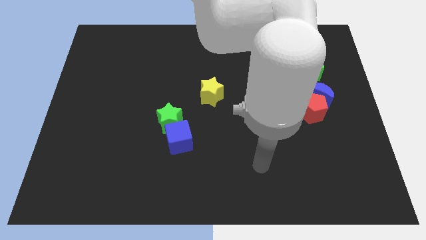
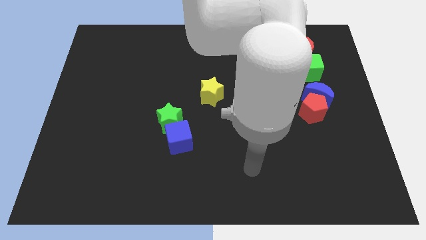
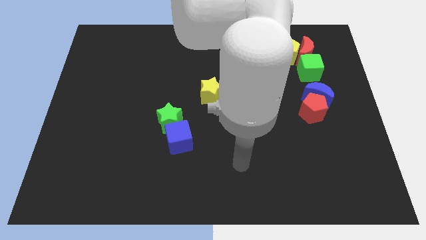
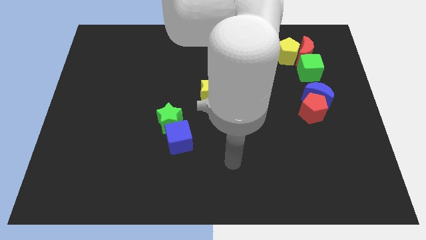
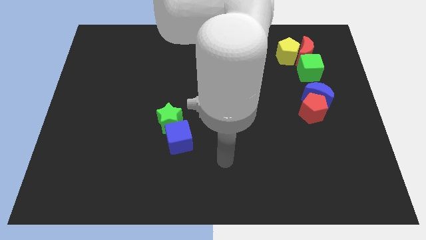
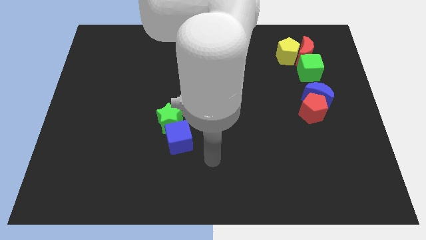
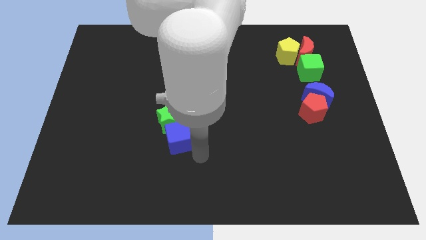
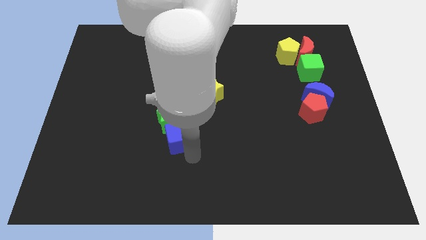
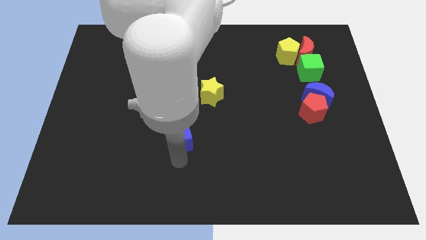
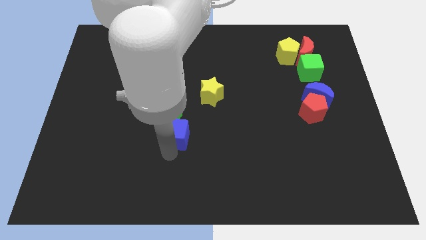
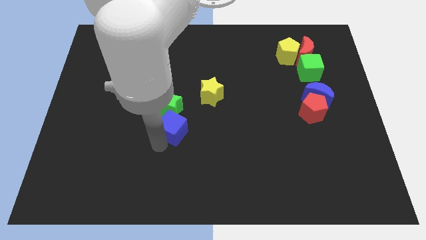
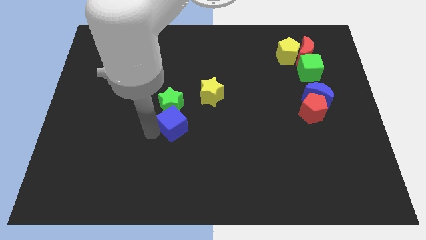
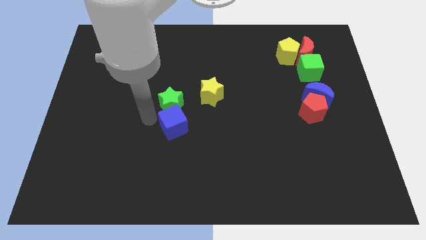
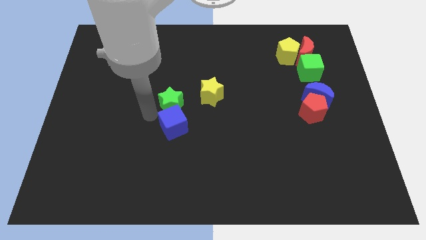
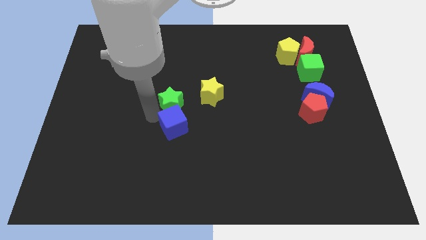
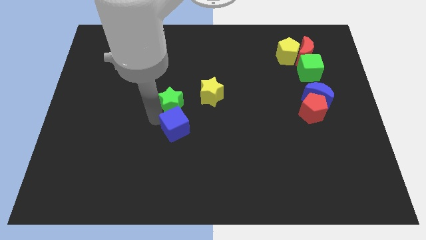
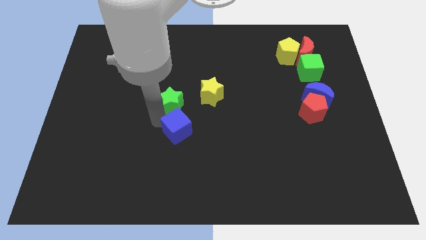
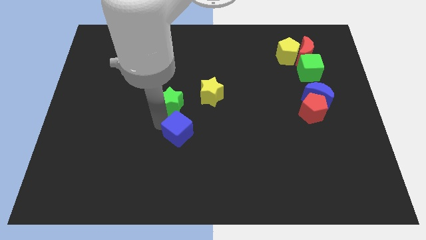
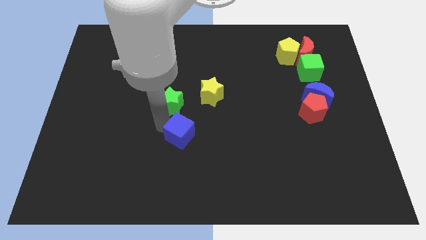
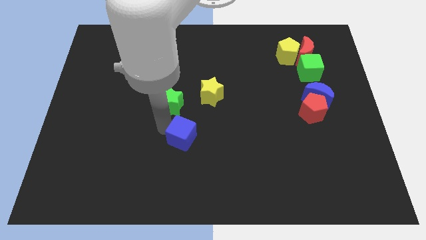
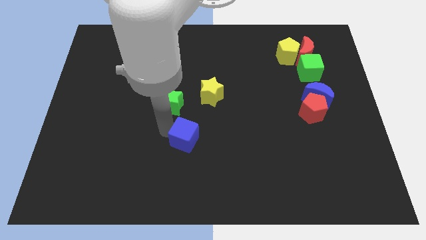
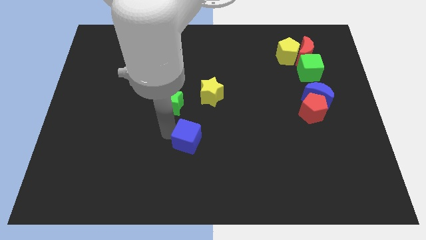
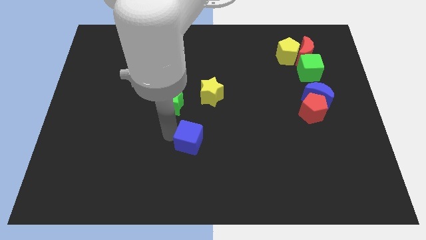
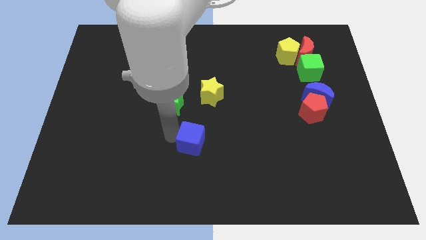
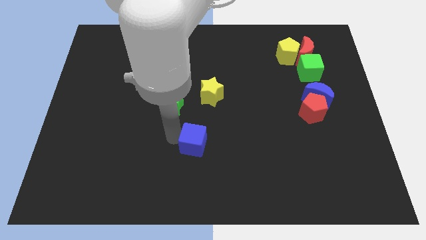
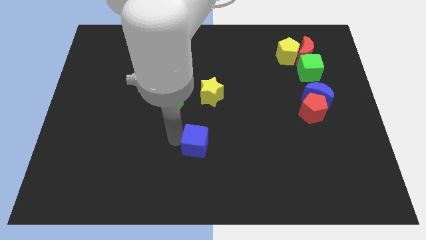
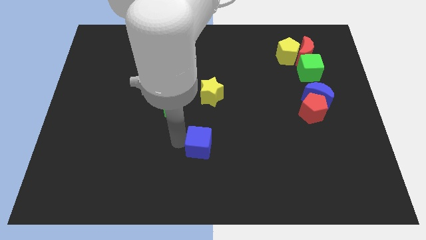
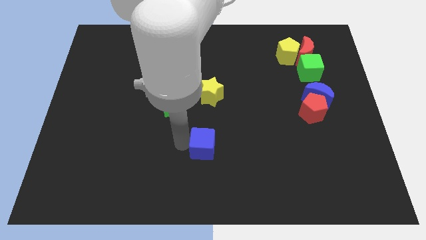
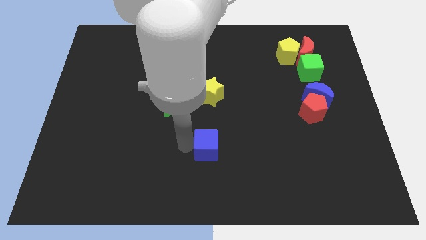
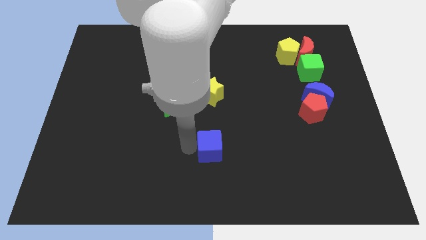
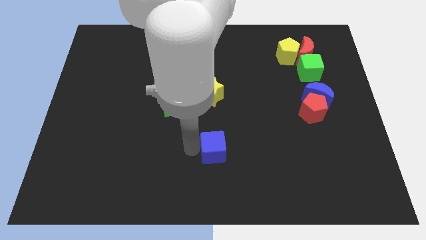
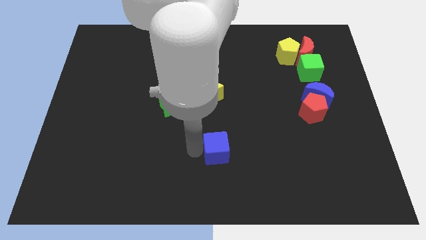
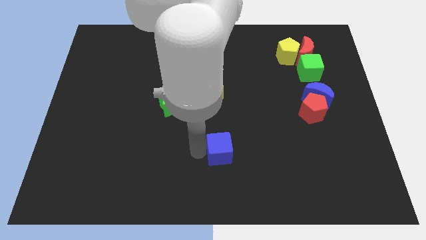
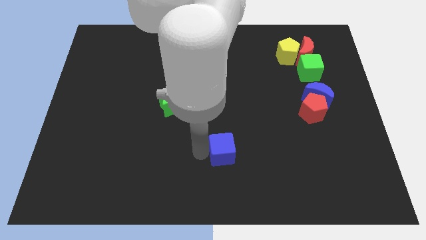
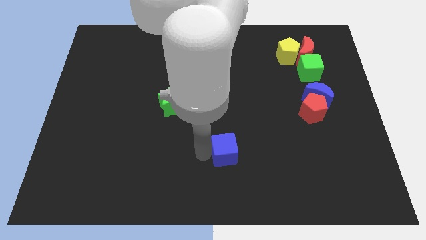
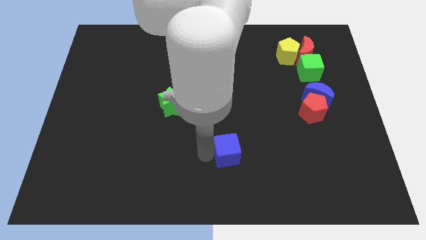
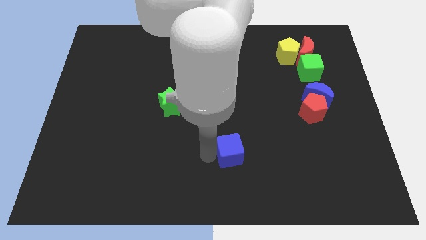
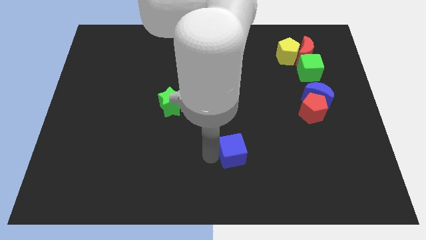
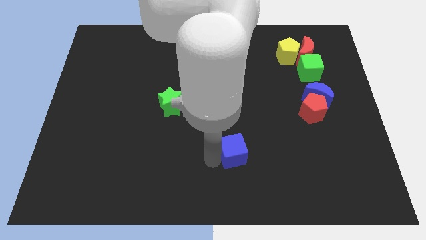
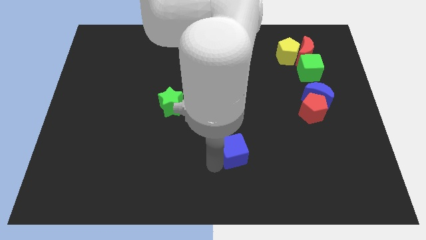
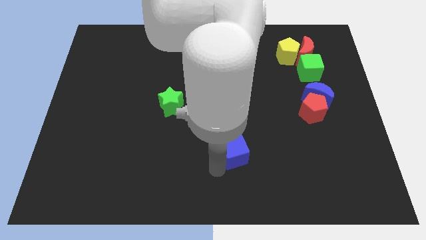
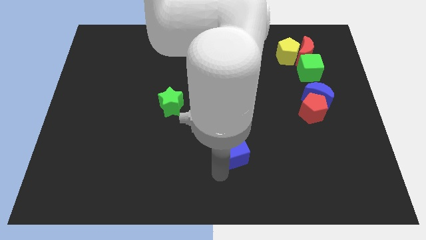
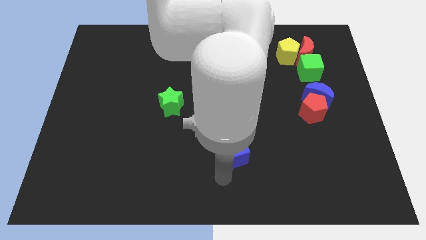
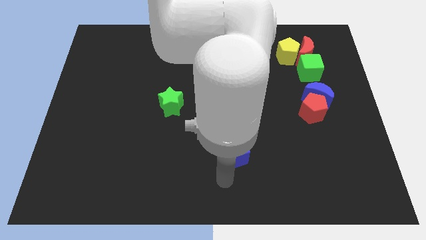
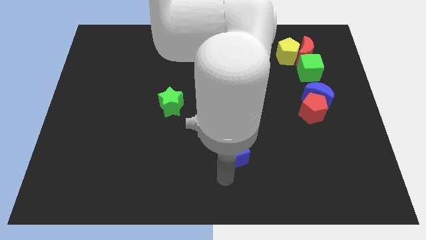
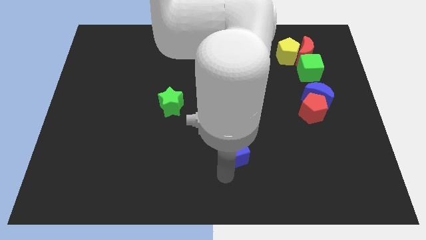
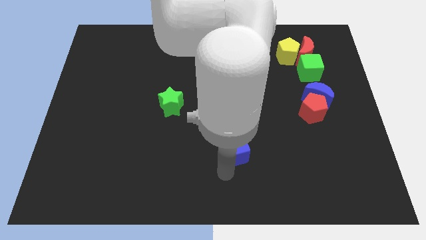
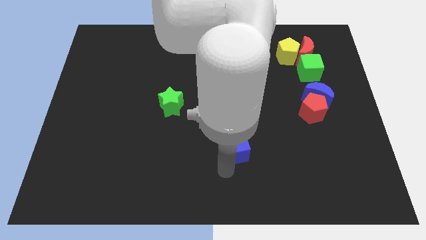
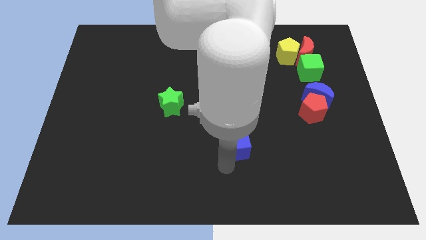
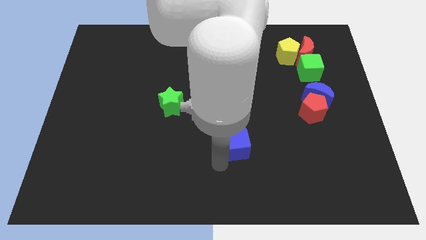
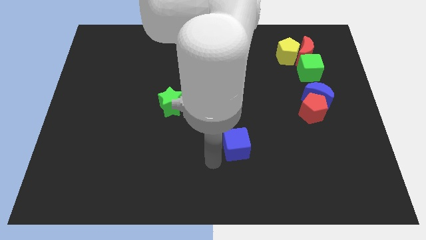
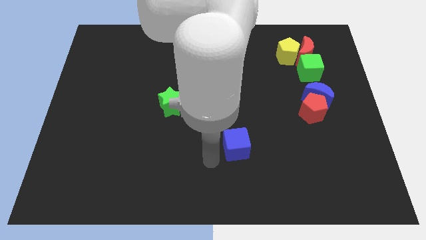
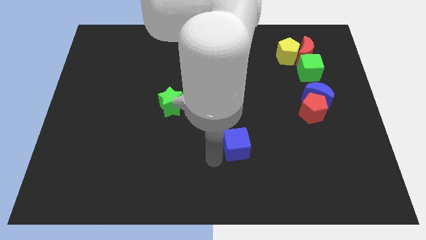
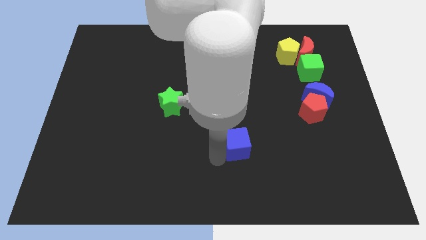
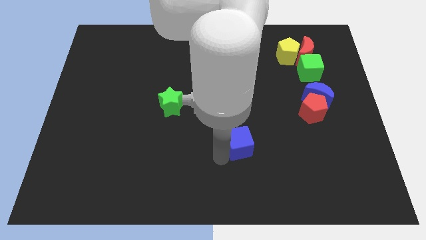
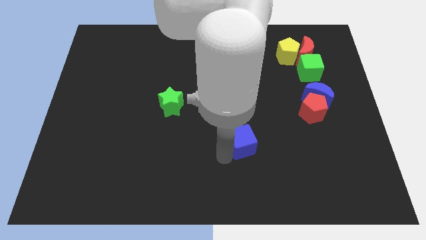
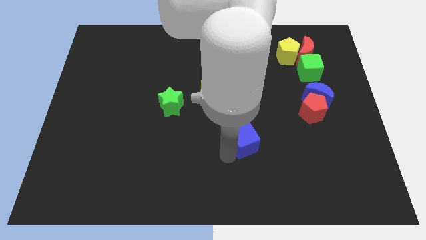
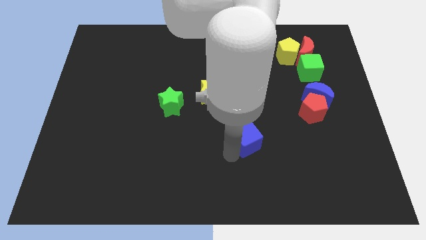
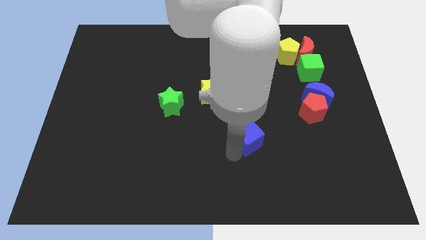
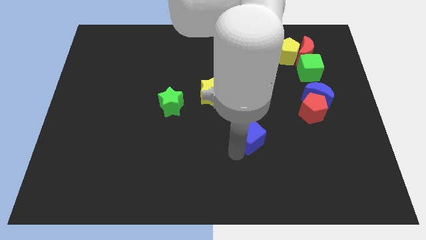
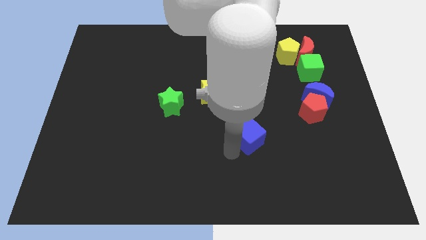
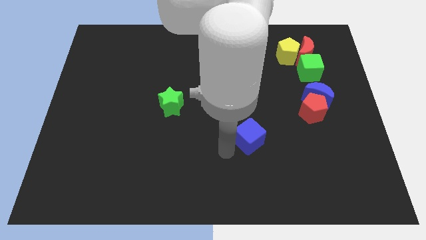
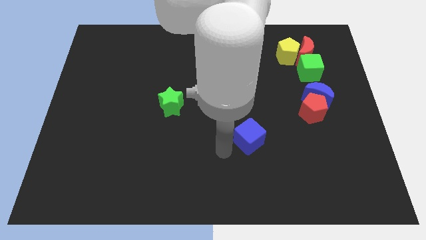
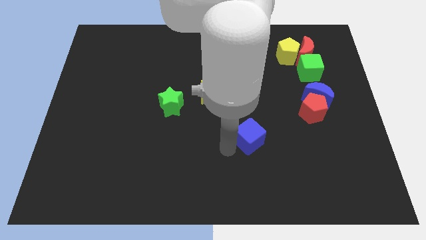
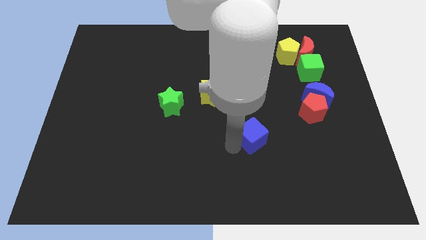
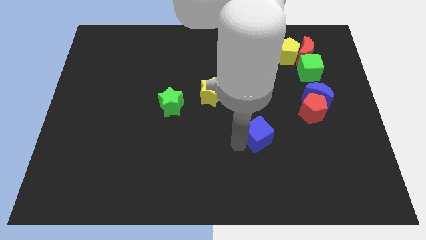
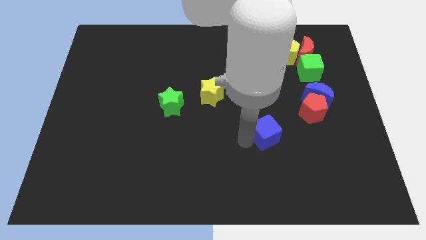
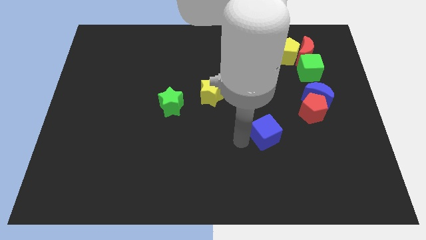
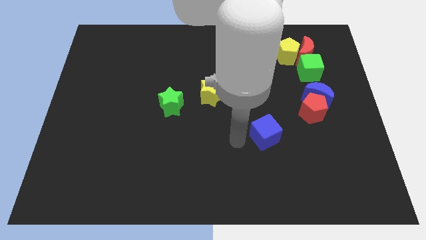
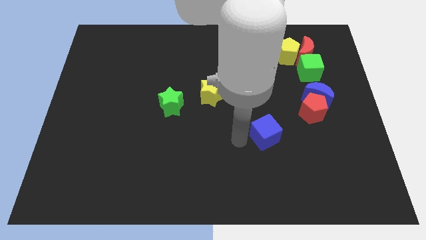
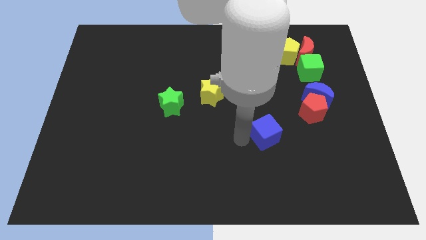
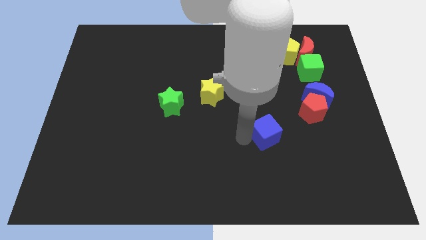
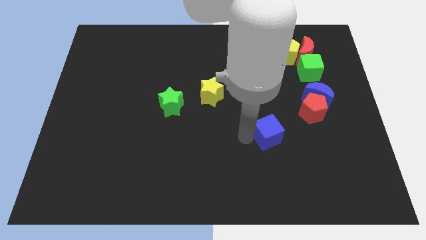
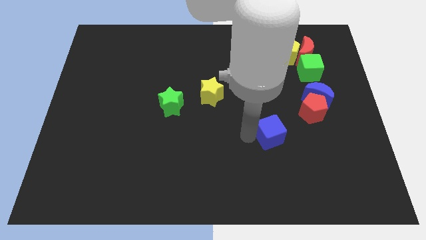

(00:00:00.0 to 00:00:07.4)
push the blue cube right

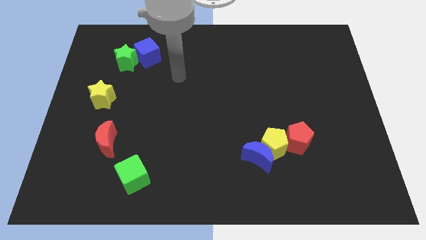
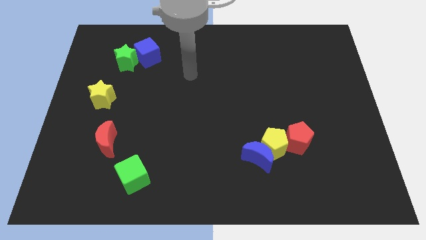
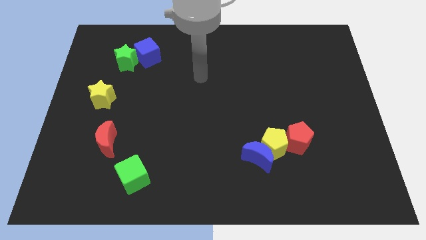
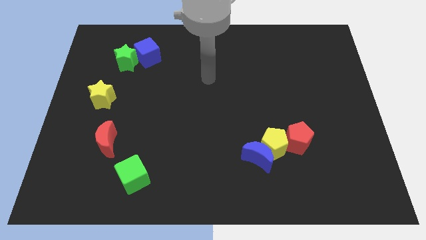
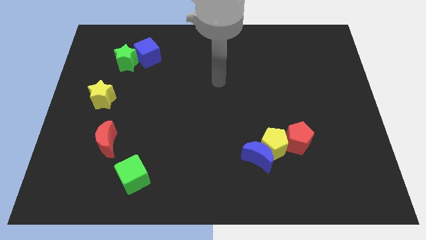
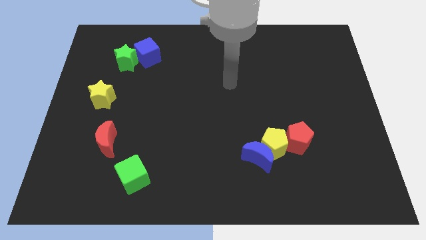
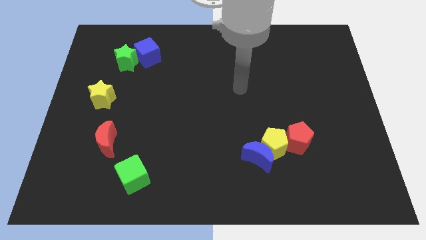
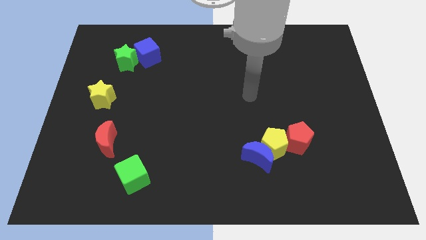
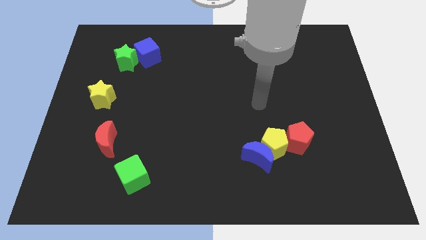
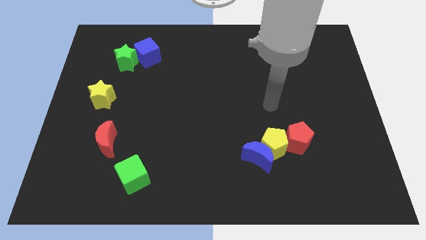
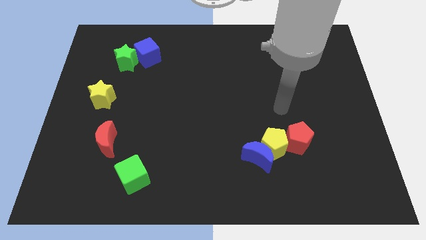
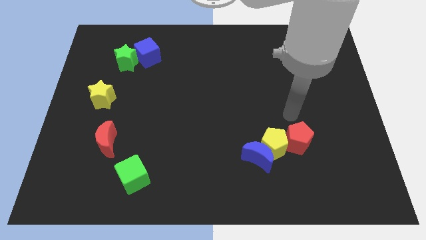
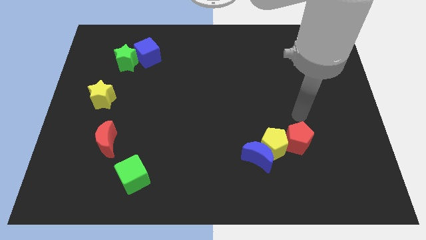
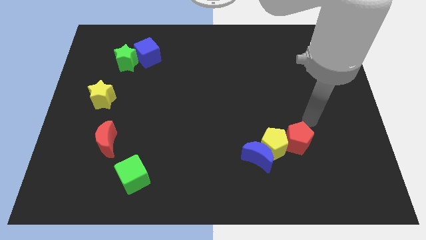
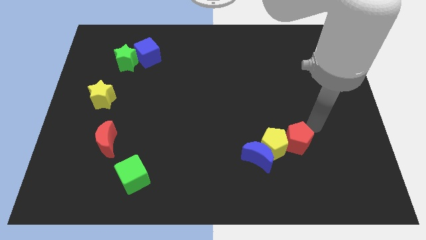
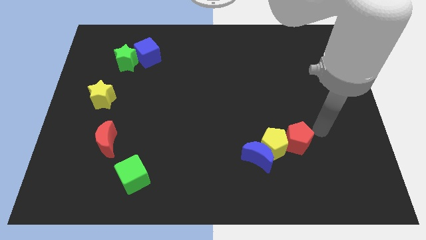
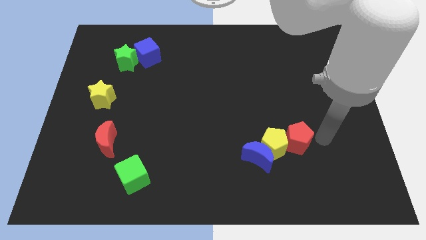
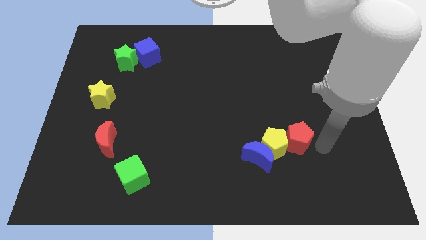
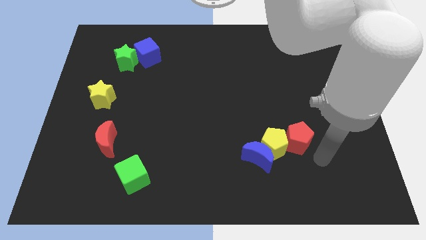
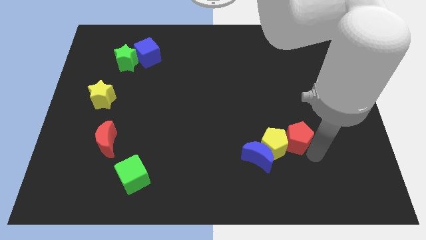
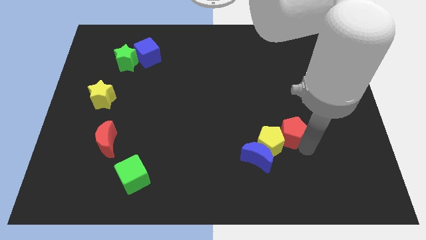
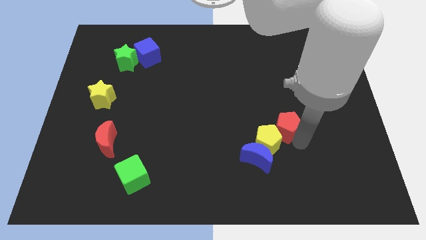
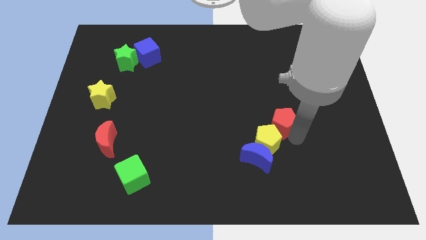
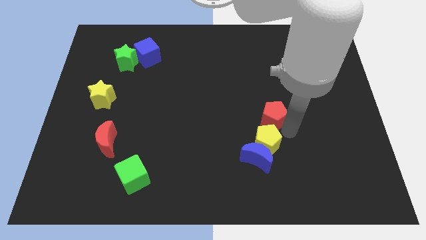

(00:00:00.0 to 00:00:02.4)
push the red pentagon up and to the left a bit
